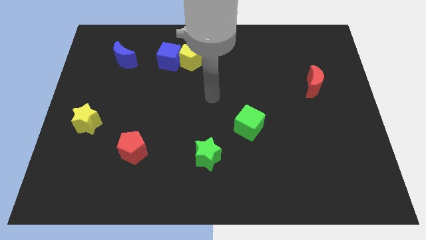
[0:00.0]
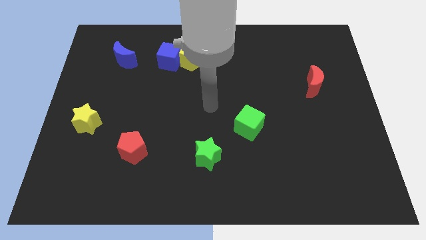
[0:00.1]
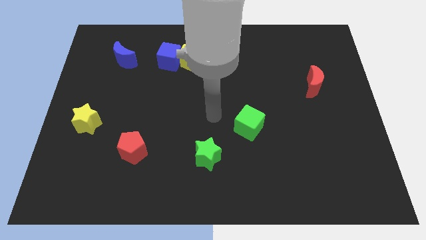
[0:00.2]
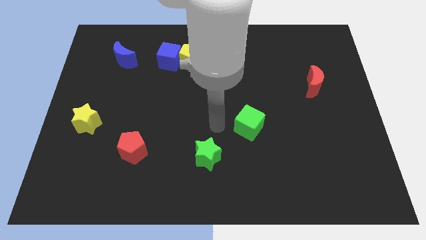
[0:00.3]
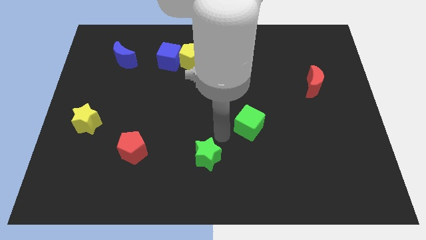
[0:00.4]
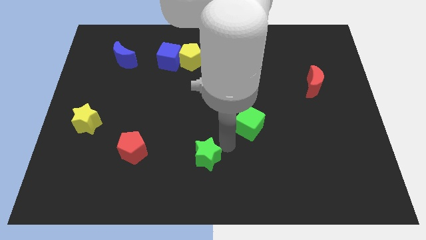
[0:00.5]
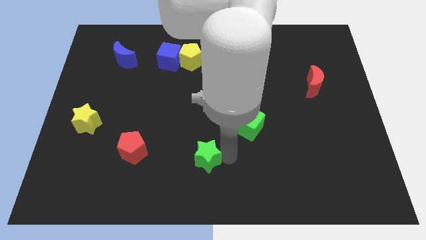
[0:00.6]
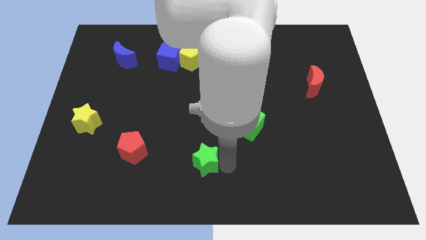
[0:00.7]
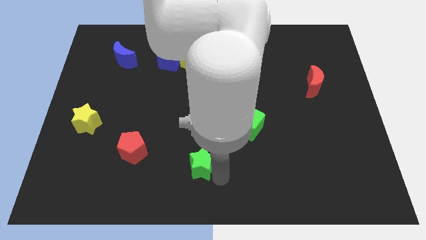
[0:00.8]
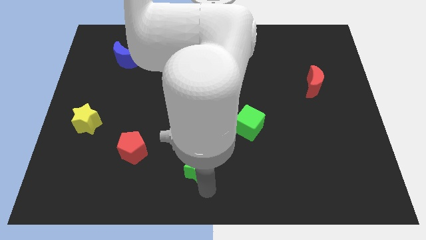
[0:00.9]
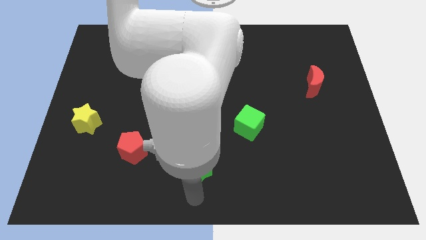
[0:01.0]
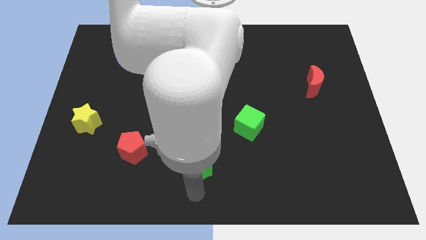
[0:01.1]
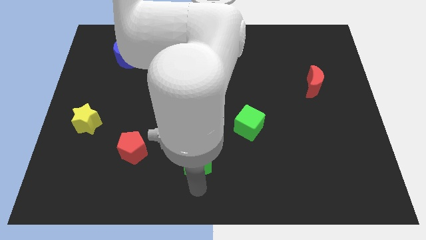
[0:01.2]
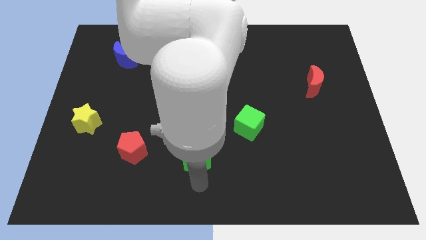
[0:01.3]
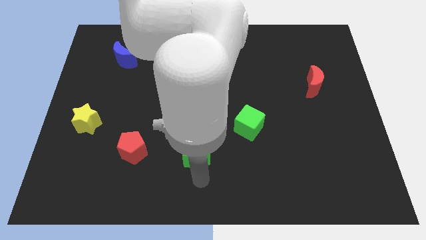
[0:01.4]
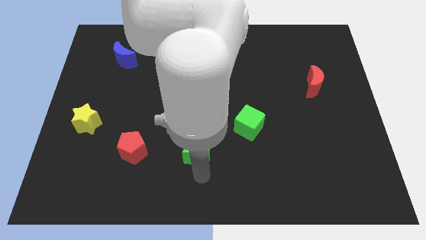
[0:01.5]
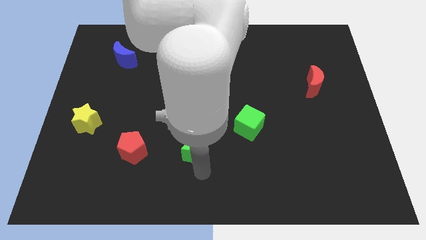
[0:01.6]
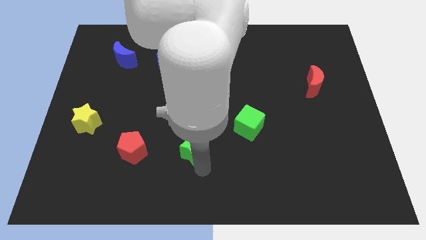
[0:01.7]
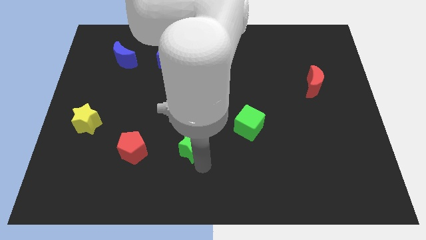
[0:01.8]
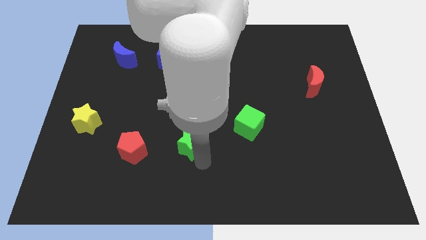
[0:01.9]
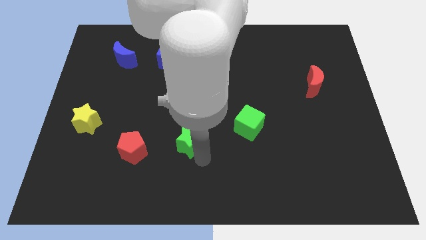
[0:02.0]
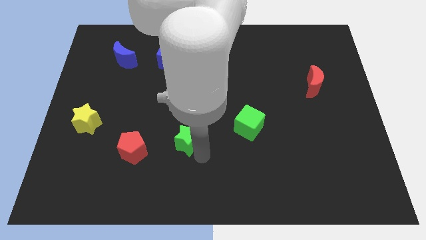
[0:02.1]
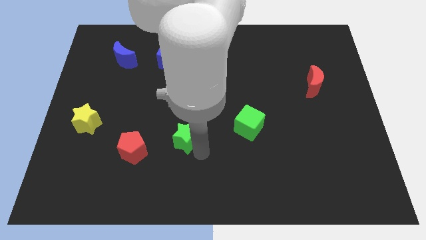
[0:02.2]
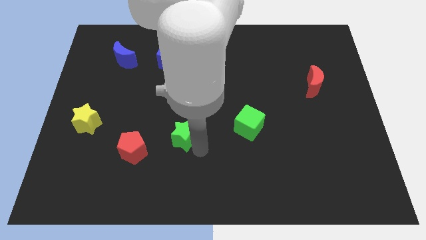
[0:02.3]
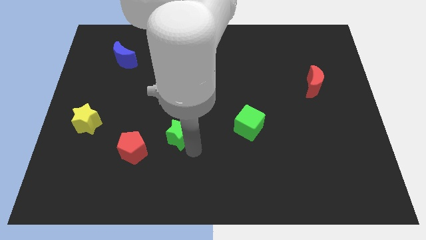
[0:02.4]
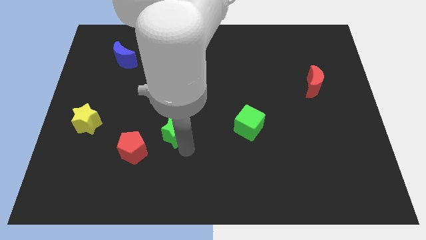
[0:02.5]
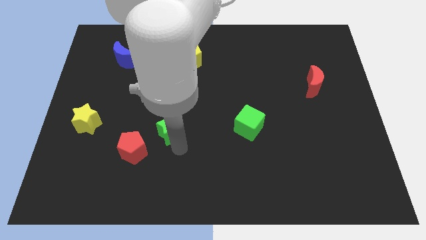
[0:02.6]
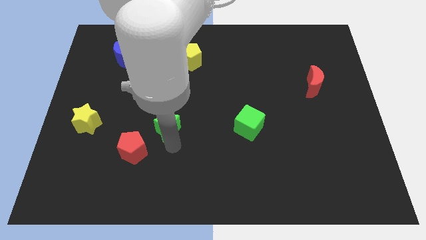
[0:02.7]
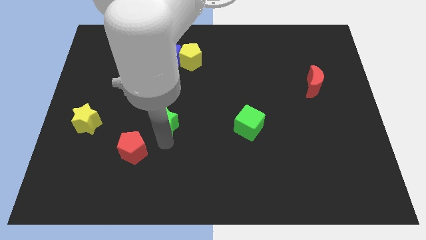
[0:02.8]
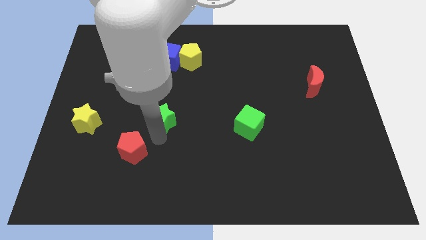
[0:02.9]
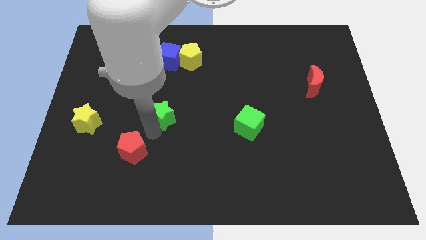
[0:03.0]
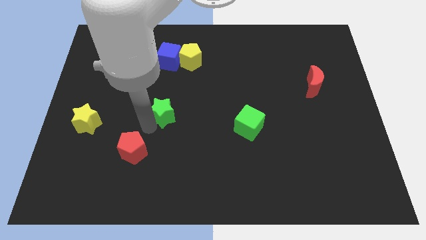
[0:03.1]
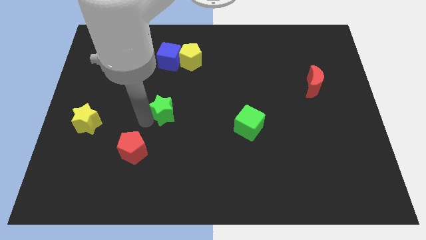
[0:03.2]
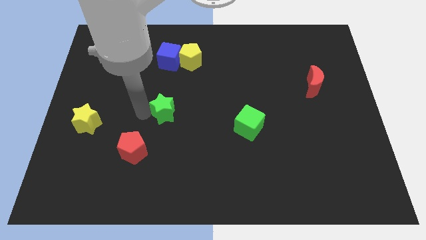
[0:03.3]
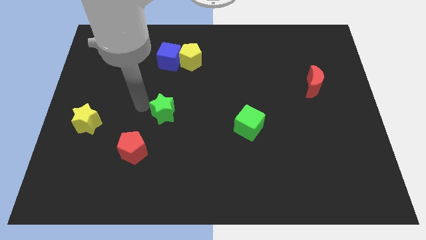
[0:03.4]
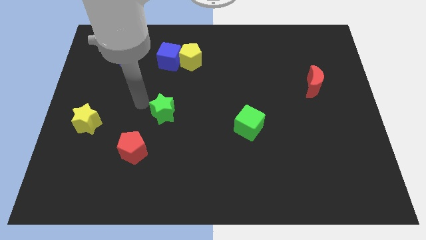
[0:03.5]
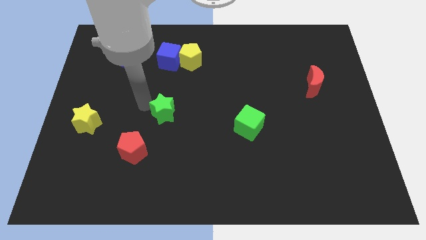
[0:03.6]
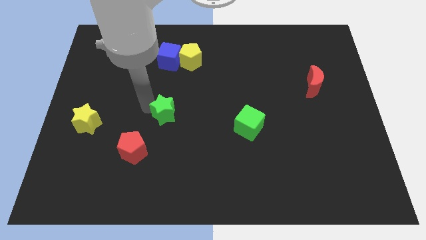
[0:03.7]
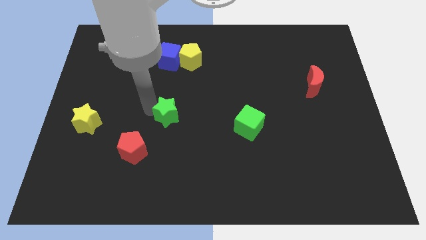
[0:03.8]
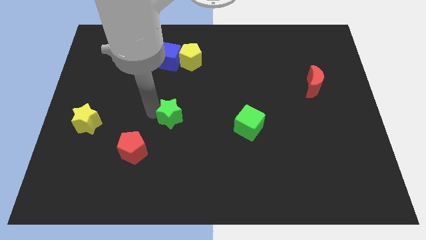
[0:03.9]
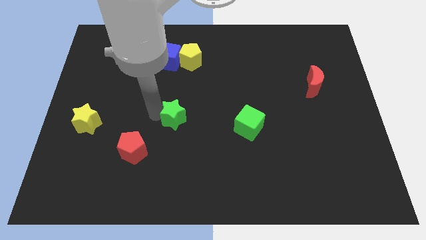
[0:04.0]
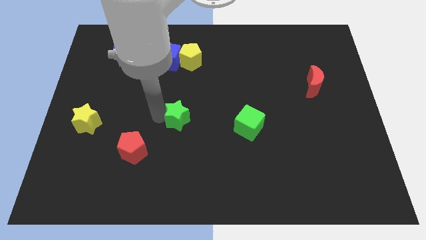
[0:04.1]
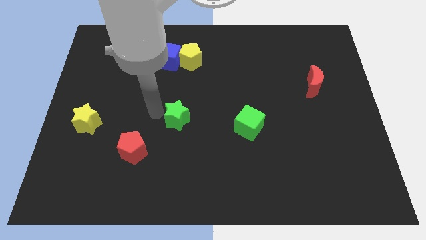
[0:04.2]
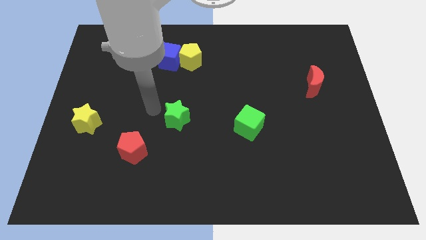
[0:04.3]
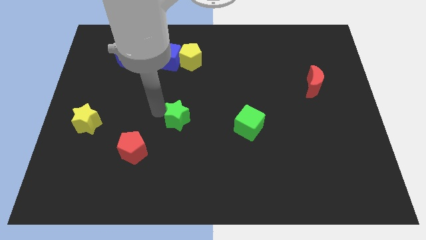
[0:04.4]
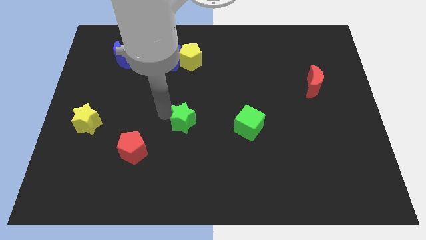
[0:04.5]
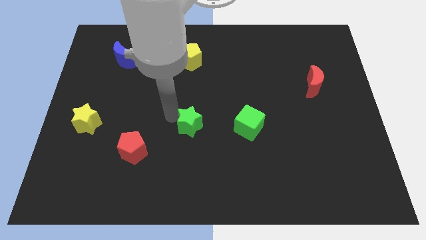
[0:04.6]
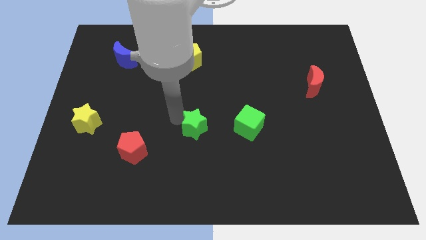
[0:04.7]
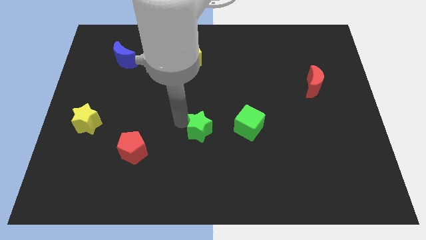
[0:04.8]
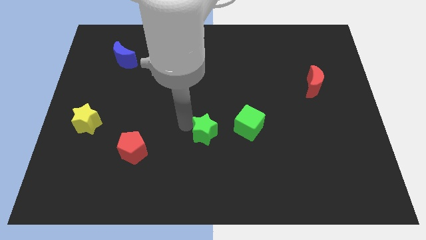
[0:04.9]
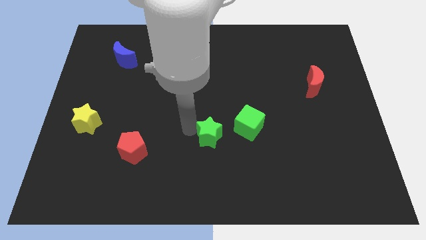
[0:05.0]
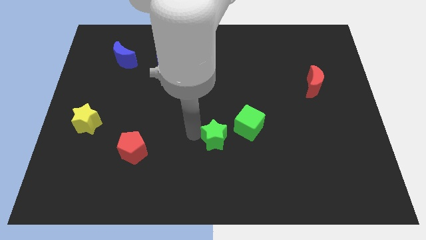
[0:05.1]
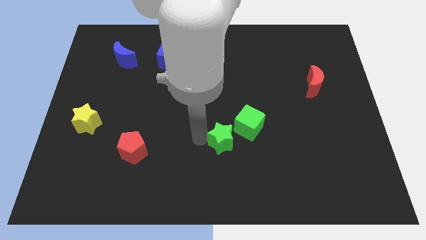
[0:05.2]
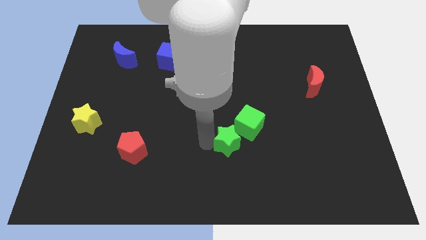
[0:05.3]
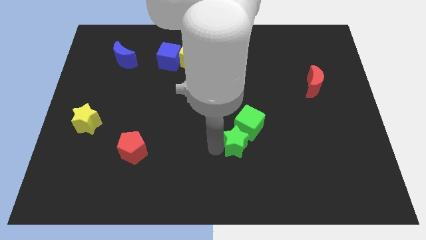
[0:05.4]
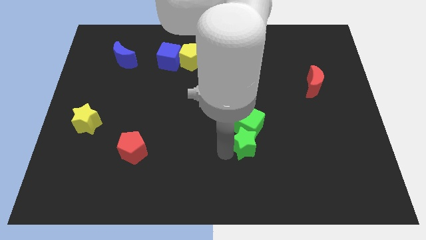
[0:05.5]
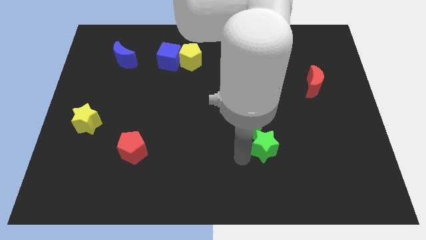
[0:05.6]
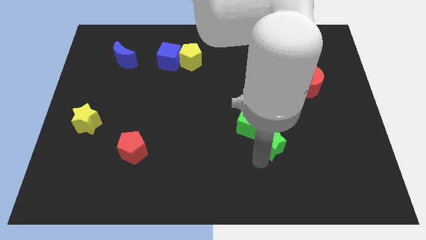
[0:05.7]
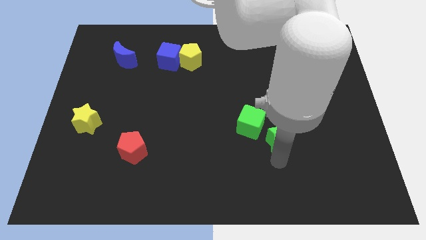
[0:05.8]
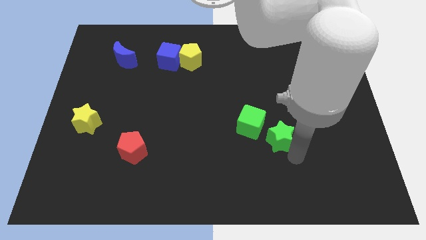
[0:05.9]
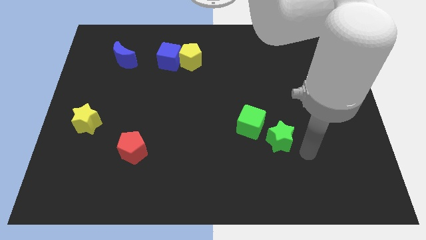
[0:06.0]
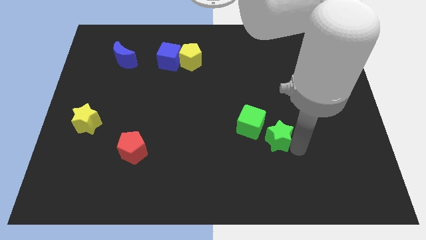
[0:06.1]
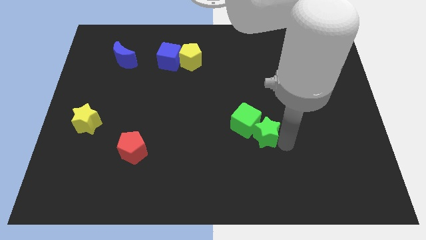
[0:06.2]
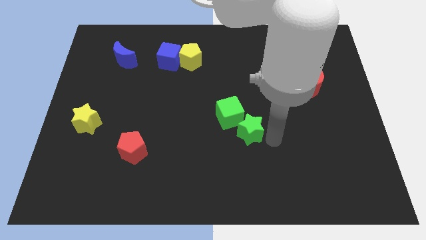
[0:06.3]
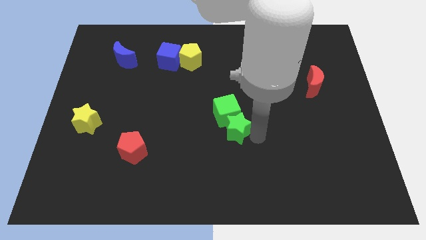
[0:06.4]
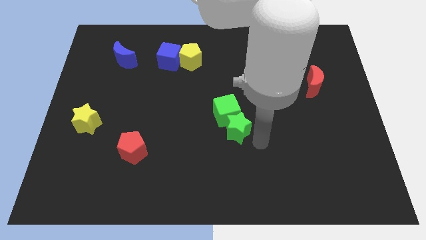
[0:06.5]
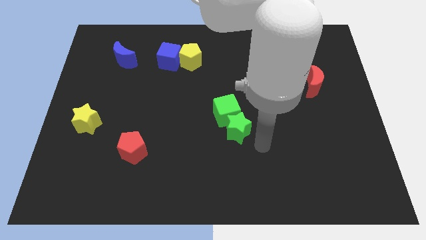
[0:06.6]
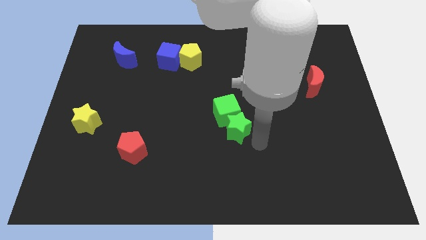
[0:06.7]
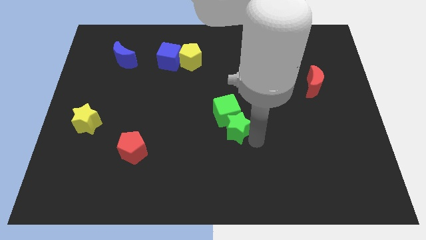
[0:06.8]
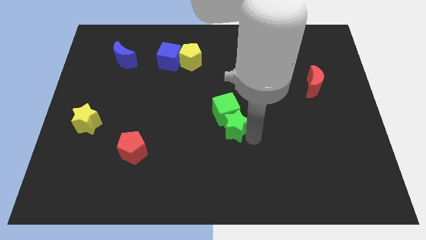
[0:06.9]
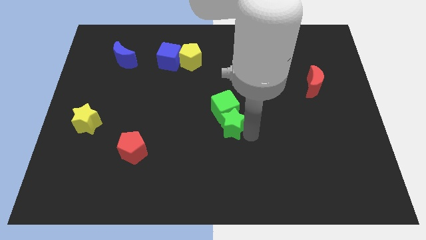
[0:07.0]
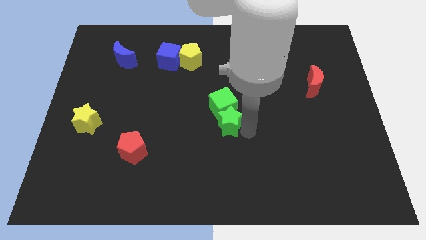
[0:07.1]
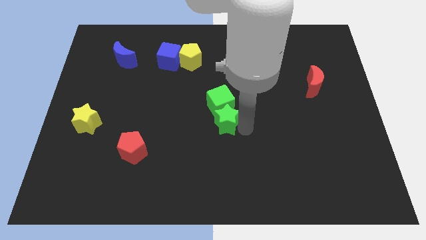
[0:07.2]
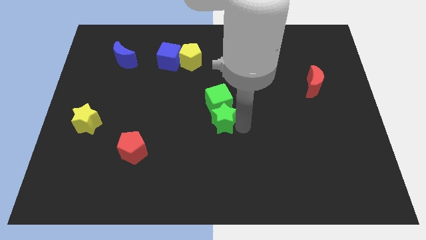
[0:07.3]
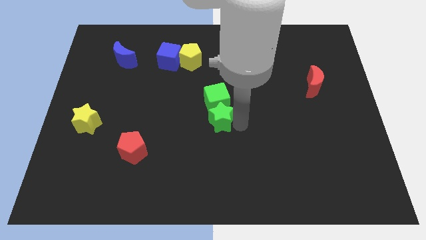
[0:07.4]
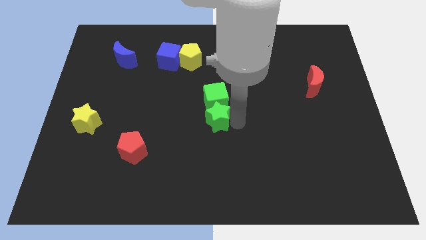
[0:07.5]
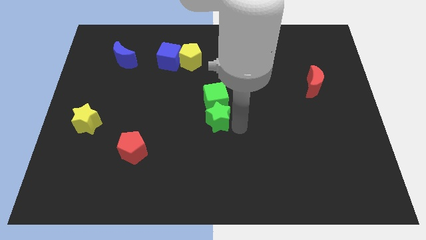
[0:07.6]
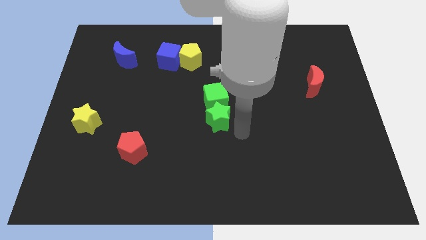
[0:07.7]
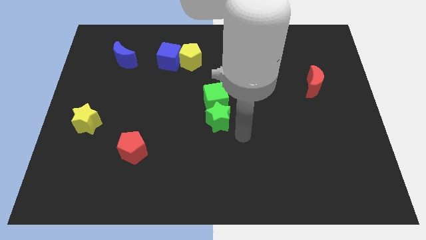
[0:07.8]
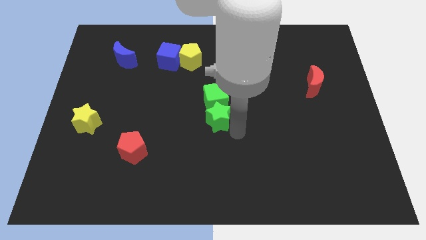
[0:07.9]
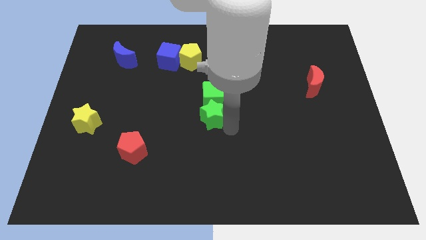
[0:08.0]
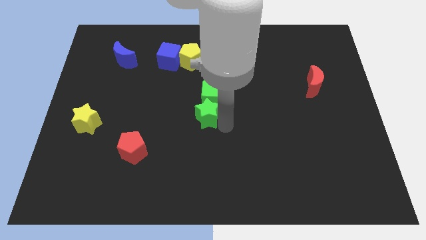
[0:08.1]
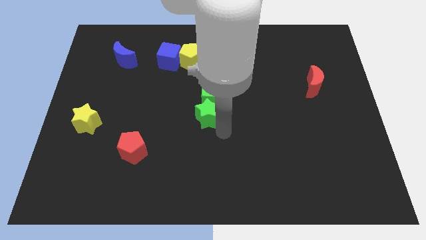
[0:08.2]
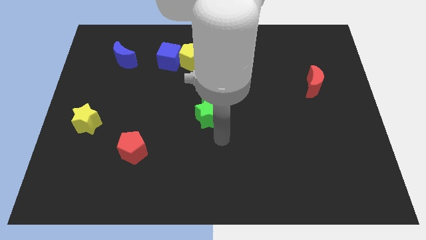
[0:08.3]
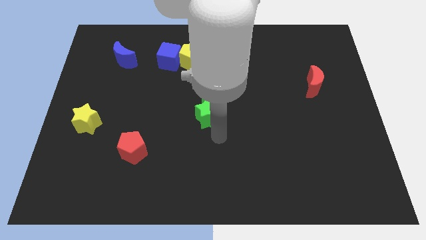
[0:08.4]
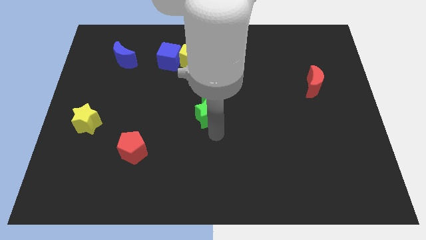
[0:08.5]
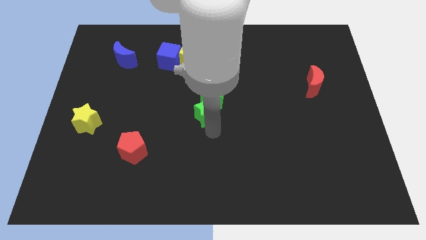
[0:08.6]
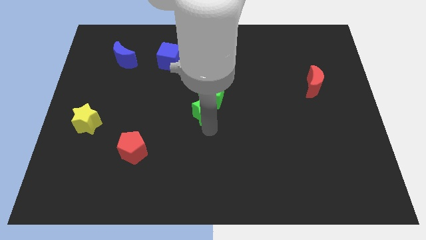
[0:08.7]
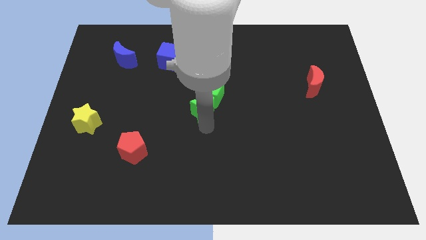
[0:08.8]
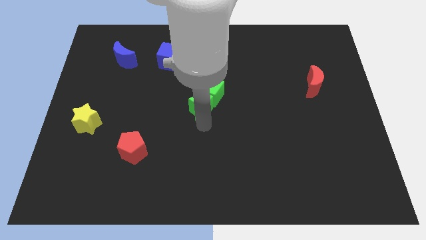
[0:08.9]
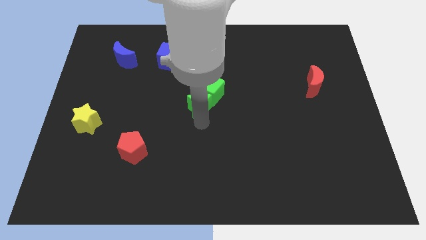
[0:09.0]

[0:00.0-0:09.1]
push the green star to the bottom side of the yellow pentagon
